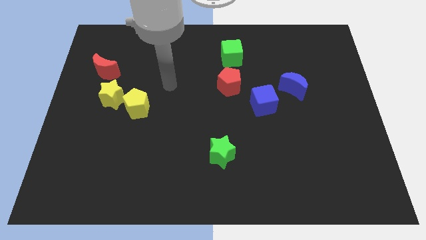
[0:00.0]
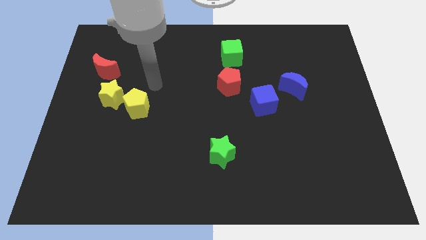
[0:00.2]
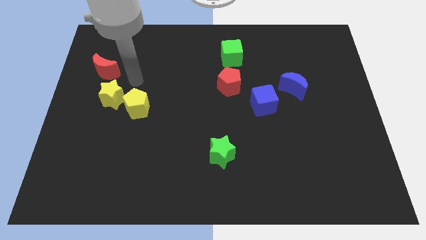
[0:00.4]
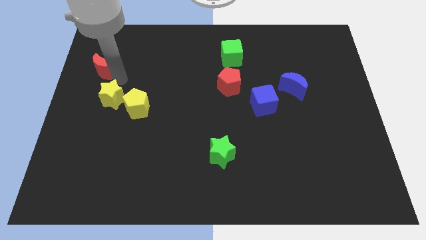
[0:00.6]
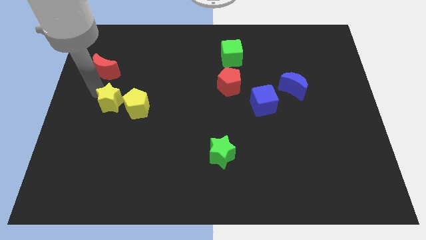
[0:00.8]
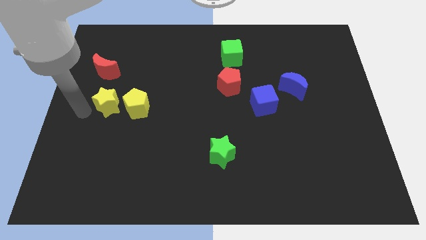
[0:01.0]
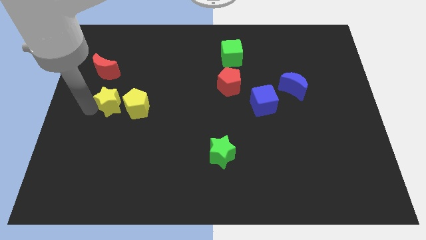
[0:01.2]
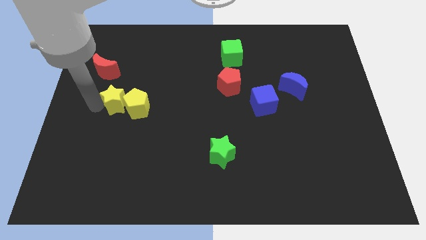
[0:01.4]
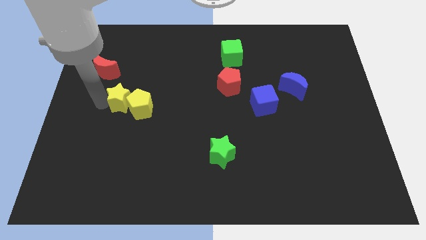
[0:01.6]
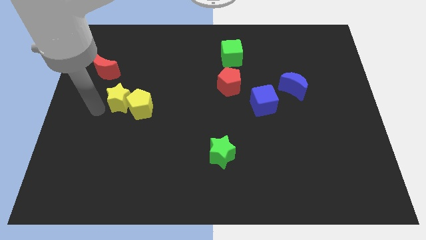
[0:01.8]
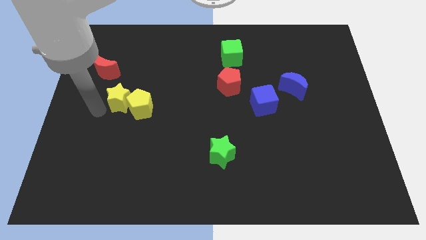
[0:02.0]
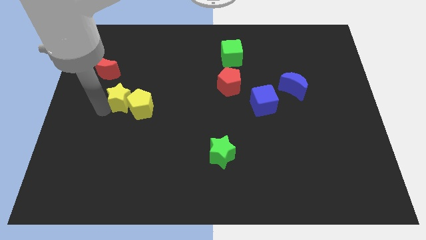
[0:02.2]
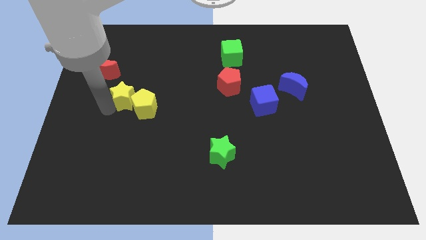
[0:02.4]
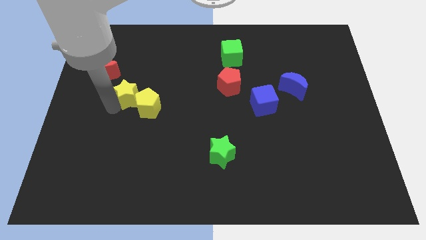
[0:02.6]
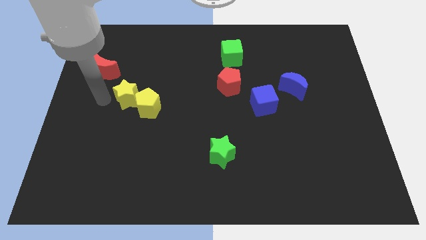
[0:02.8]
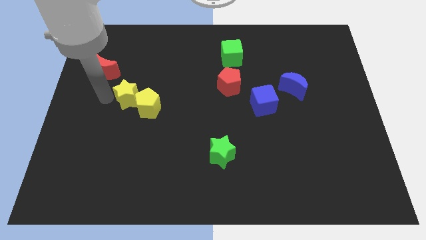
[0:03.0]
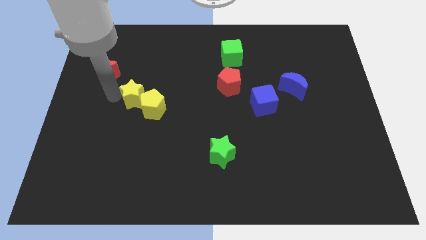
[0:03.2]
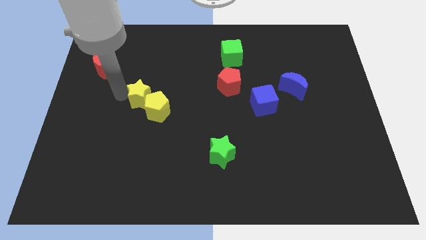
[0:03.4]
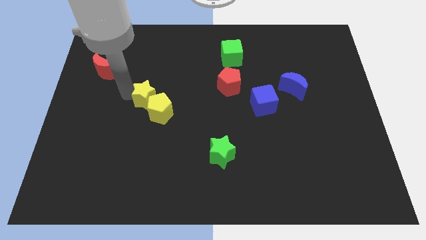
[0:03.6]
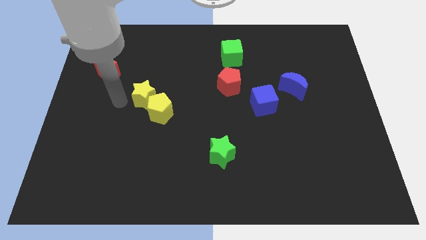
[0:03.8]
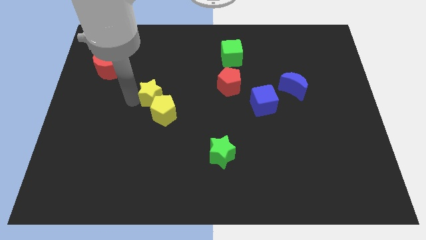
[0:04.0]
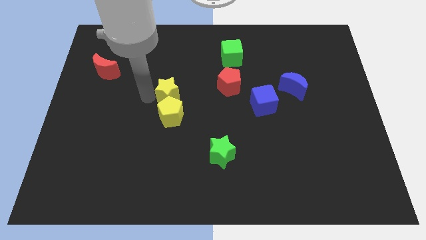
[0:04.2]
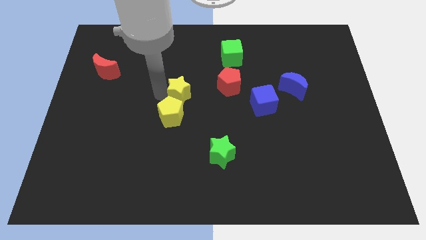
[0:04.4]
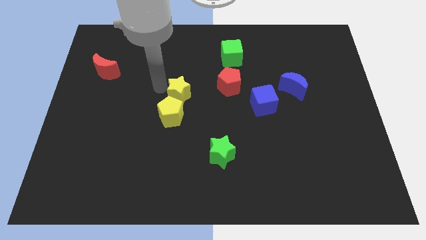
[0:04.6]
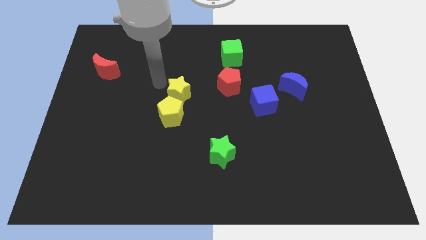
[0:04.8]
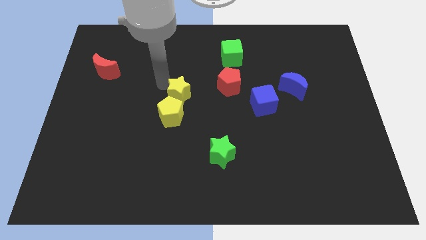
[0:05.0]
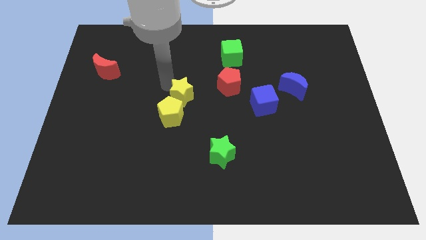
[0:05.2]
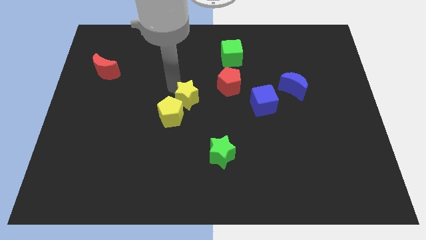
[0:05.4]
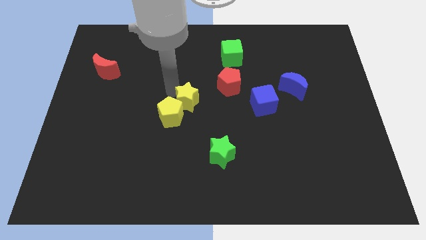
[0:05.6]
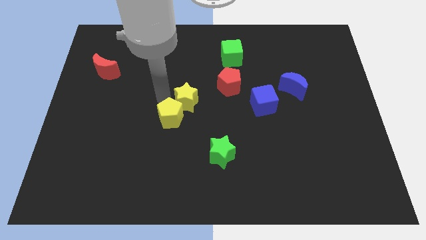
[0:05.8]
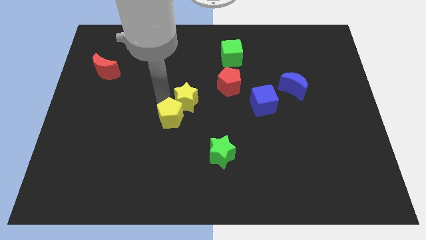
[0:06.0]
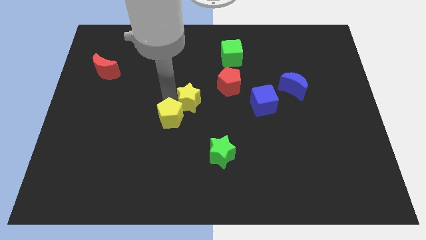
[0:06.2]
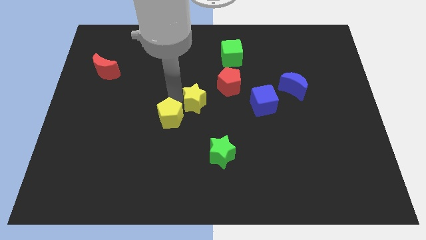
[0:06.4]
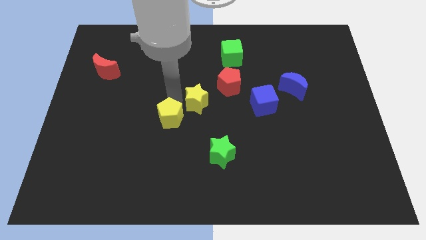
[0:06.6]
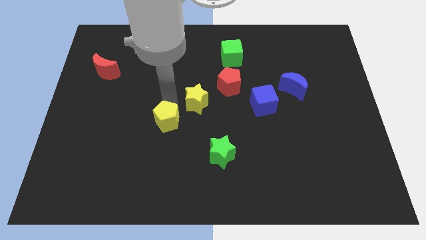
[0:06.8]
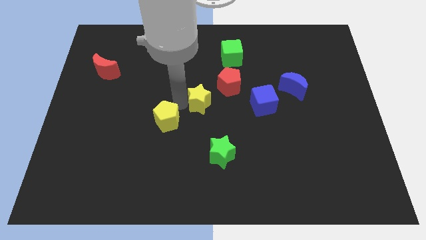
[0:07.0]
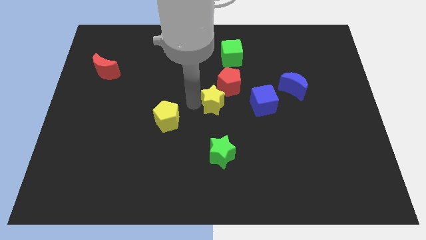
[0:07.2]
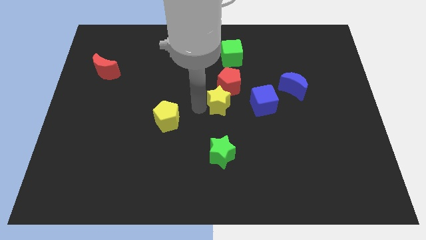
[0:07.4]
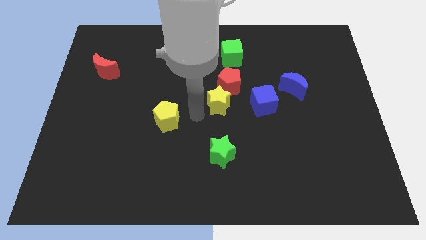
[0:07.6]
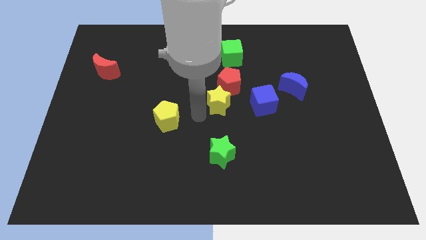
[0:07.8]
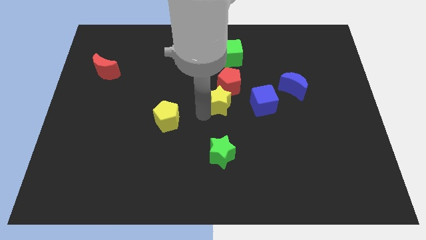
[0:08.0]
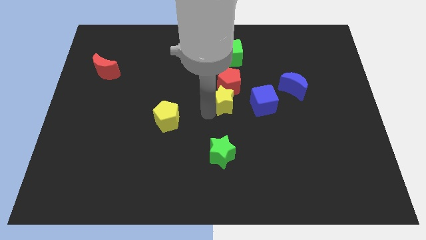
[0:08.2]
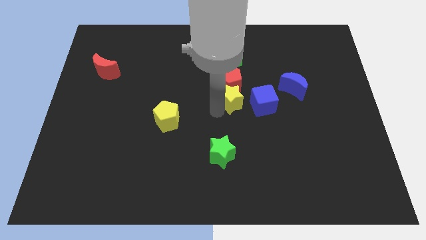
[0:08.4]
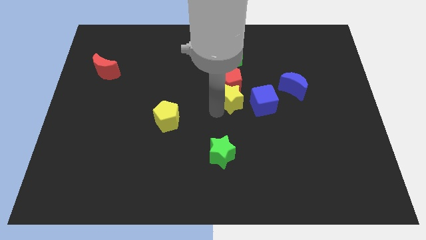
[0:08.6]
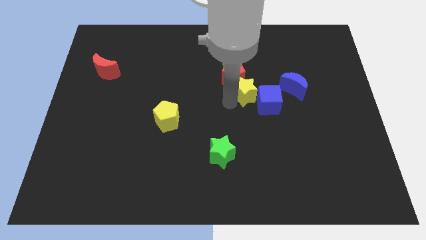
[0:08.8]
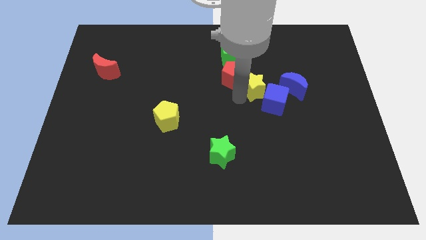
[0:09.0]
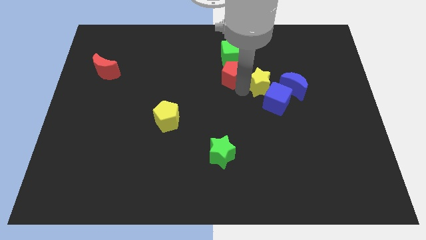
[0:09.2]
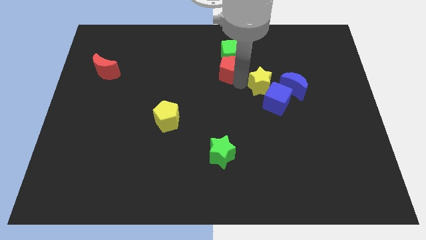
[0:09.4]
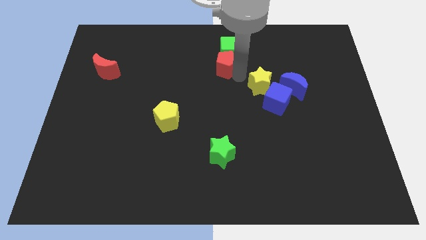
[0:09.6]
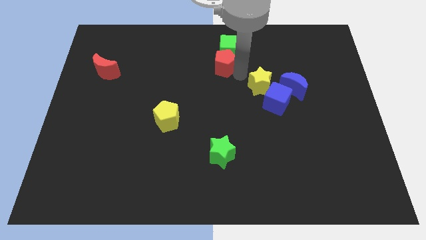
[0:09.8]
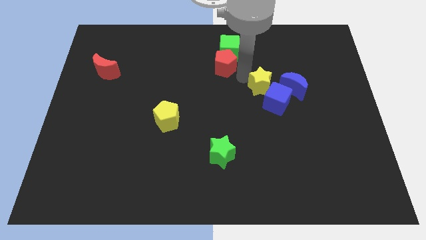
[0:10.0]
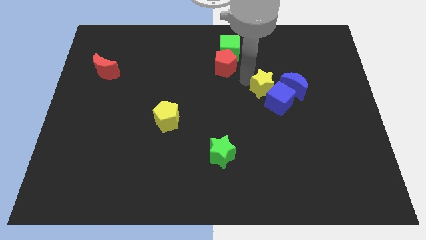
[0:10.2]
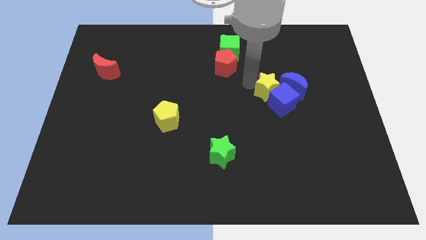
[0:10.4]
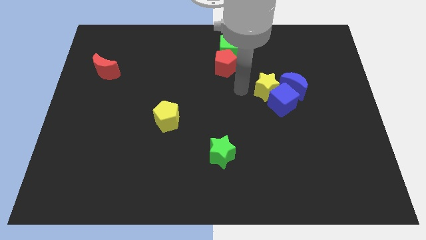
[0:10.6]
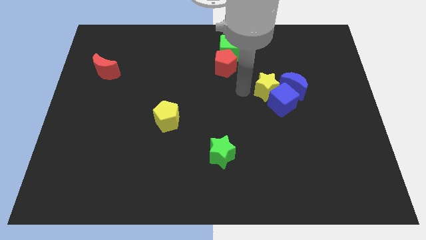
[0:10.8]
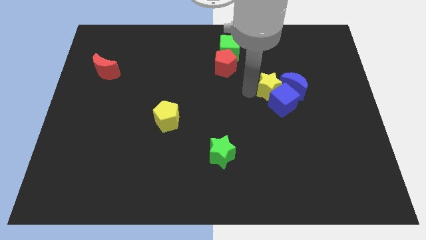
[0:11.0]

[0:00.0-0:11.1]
move the yellow star to the blue moon

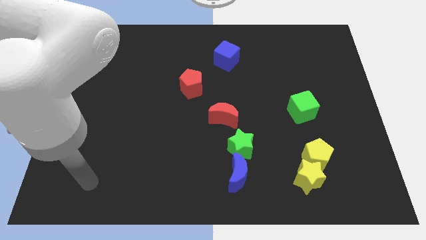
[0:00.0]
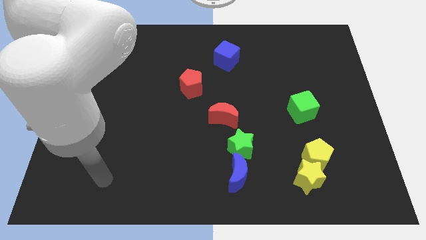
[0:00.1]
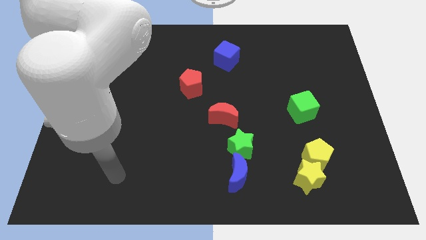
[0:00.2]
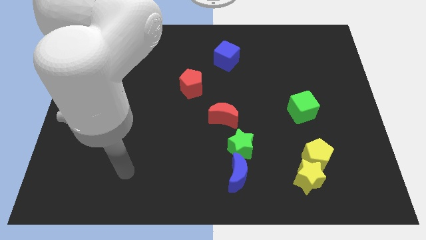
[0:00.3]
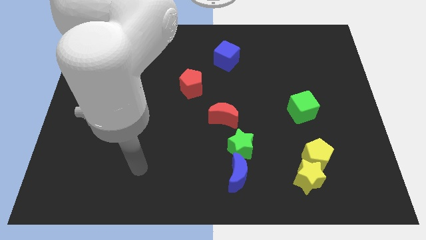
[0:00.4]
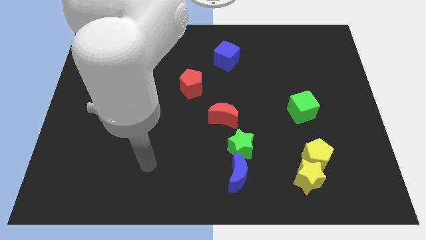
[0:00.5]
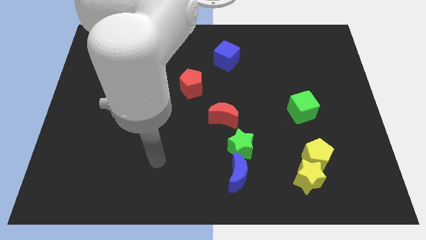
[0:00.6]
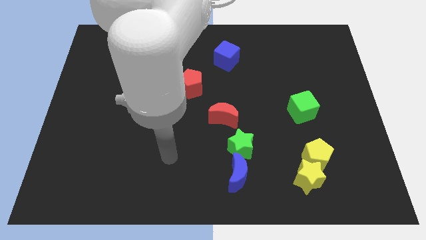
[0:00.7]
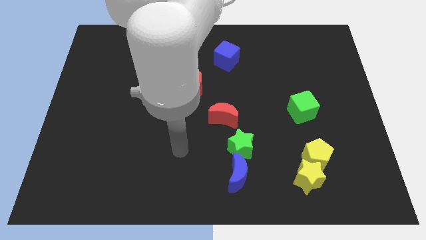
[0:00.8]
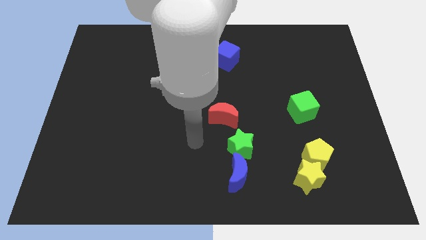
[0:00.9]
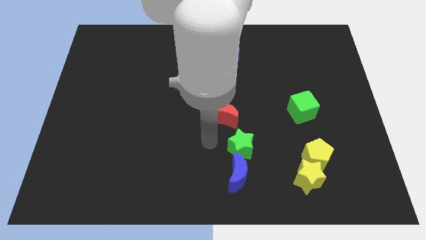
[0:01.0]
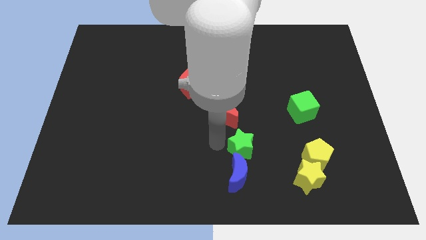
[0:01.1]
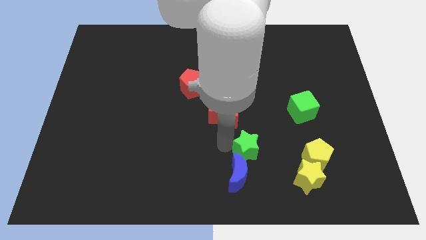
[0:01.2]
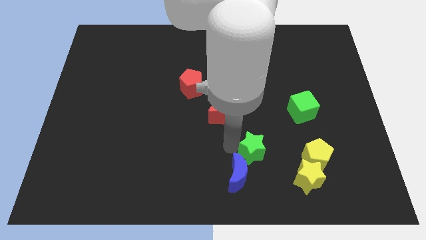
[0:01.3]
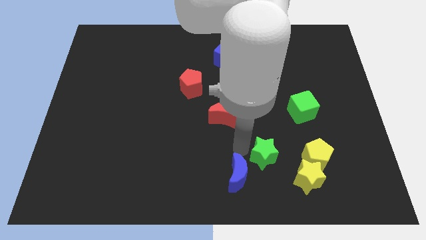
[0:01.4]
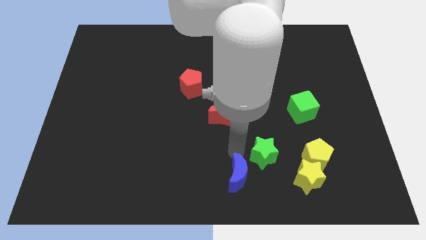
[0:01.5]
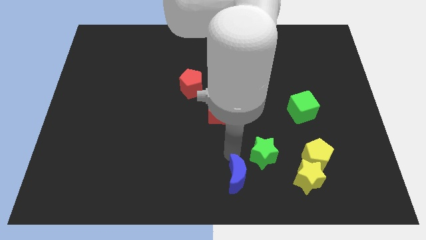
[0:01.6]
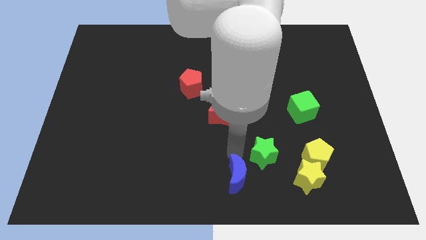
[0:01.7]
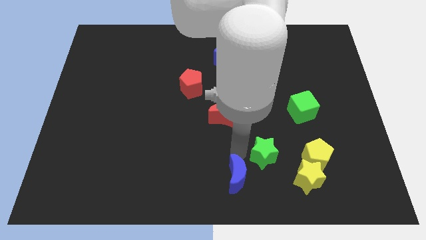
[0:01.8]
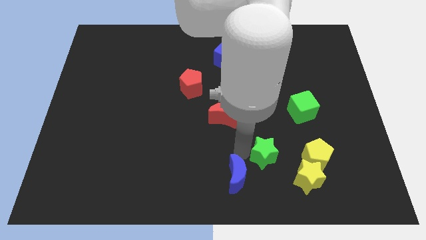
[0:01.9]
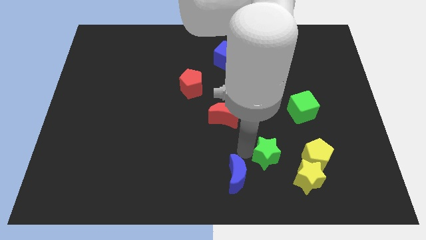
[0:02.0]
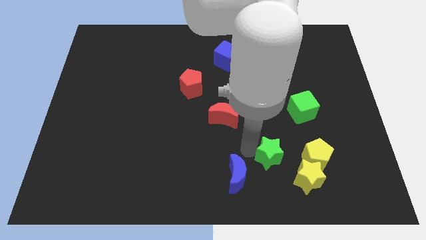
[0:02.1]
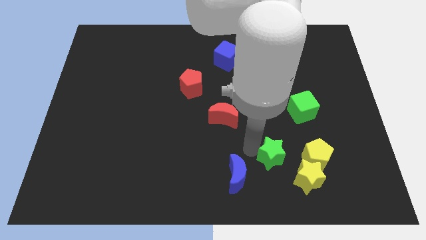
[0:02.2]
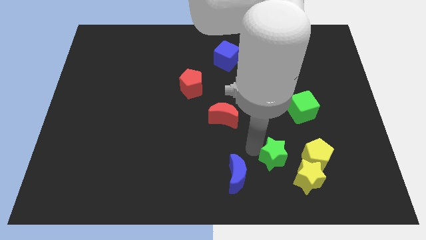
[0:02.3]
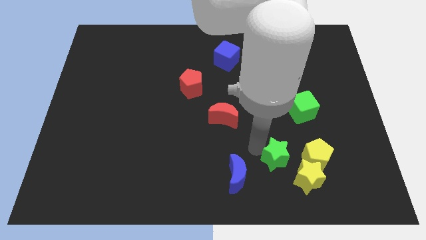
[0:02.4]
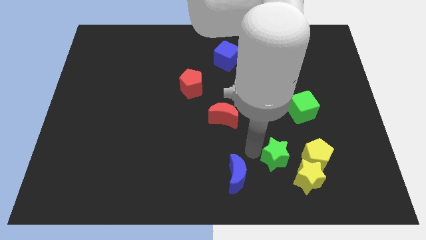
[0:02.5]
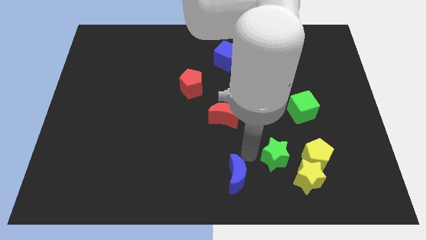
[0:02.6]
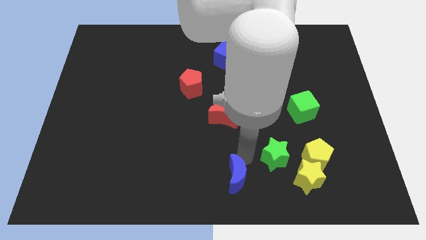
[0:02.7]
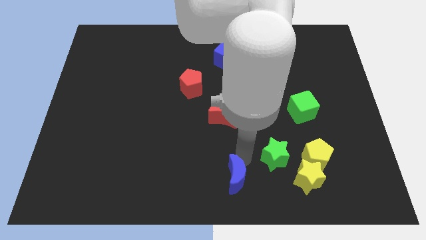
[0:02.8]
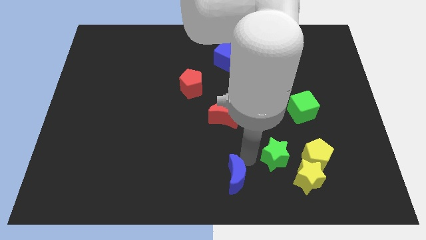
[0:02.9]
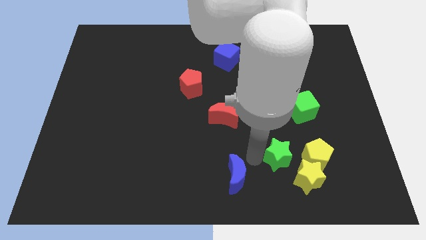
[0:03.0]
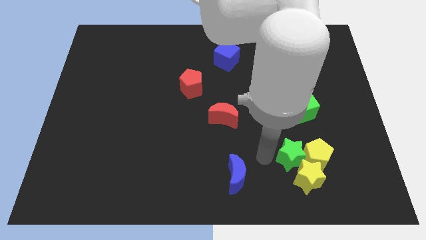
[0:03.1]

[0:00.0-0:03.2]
put the green star to the yellow pentagon
